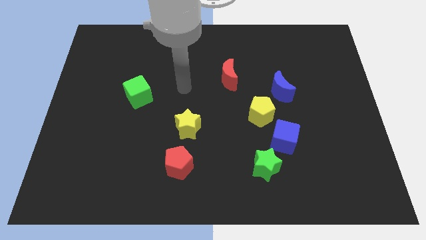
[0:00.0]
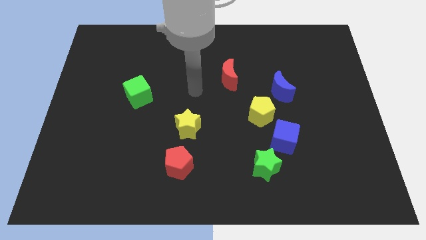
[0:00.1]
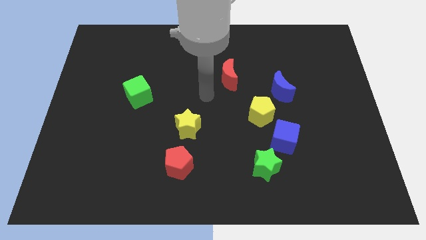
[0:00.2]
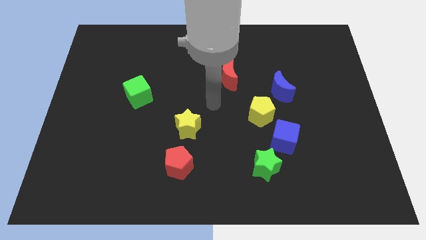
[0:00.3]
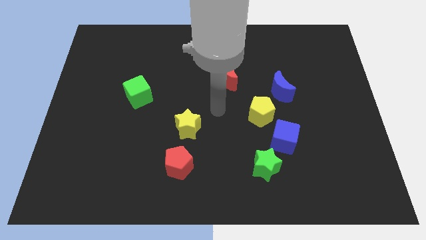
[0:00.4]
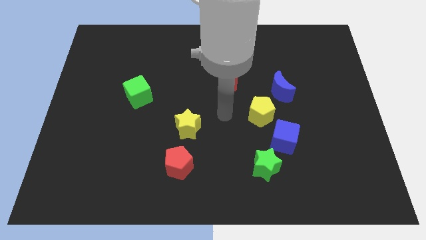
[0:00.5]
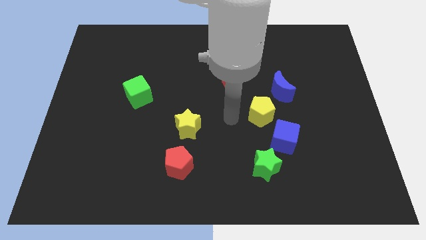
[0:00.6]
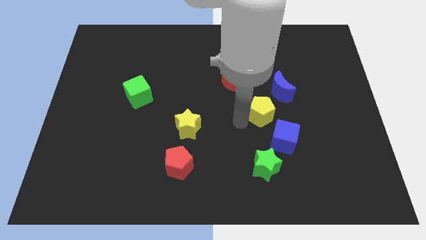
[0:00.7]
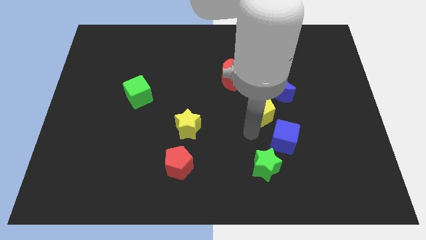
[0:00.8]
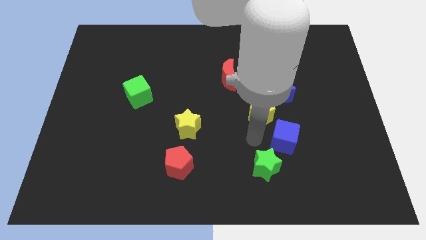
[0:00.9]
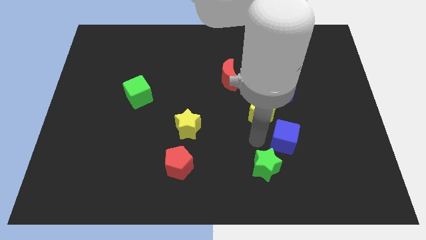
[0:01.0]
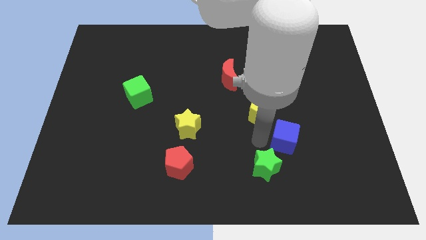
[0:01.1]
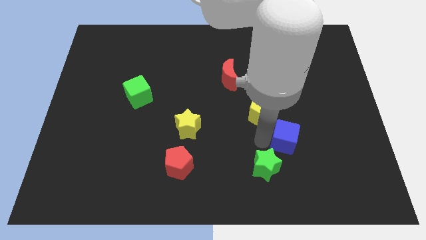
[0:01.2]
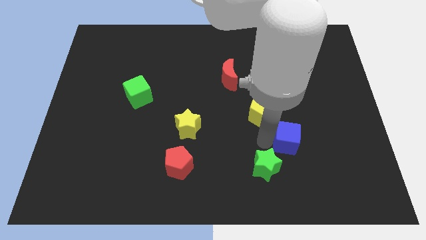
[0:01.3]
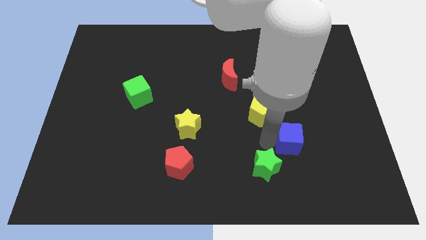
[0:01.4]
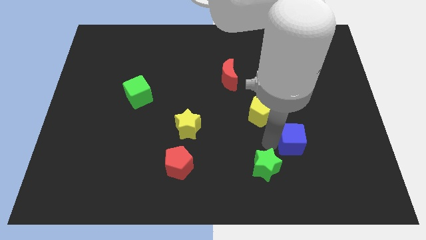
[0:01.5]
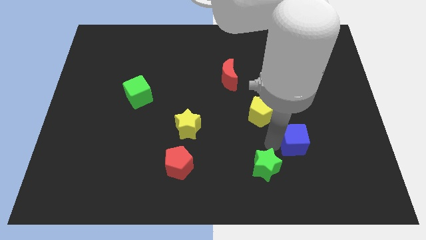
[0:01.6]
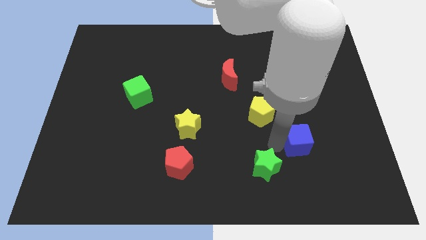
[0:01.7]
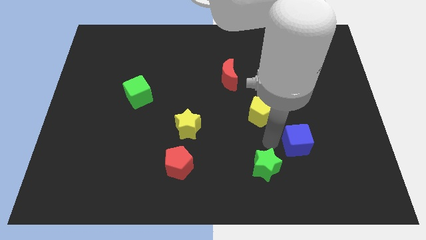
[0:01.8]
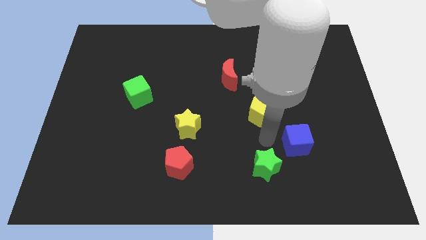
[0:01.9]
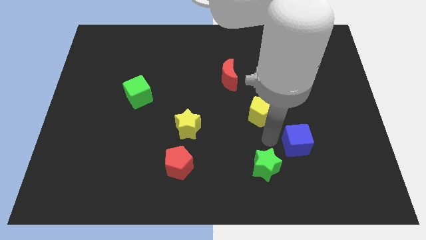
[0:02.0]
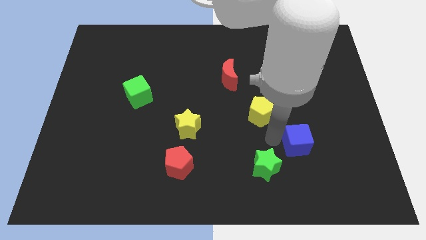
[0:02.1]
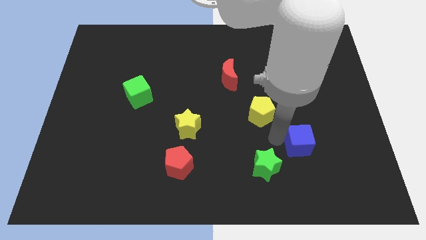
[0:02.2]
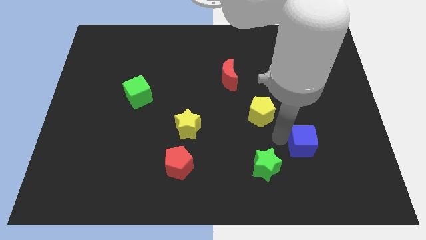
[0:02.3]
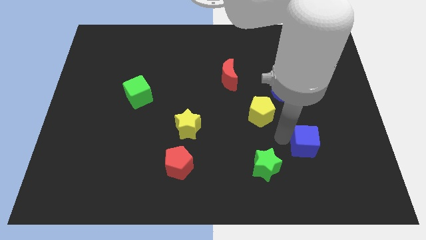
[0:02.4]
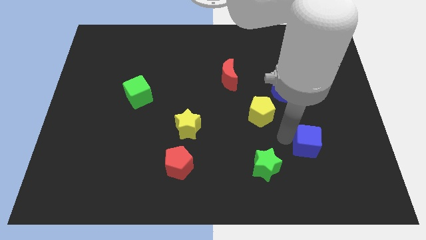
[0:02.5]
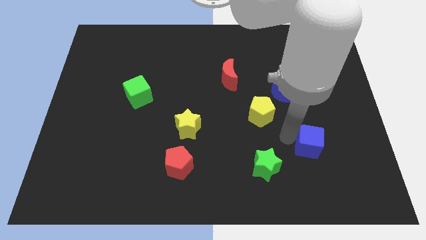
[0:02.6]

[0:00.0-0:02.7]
separate the blue cube from the yellow pentagon and green star

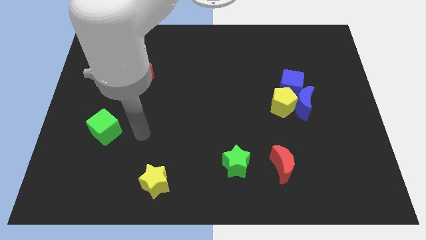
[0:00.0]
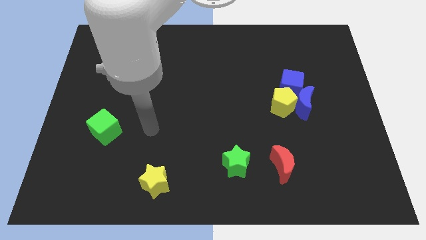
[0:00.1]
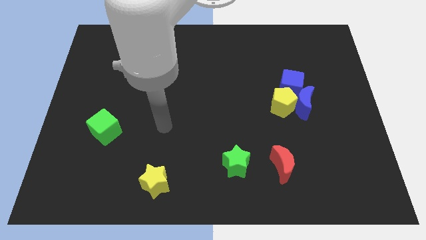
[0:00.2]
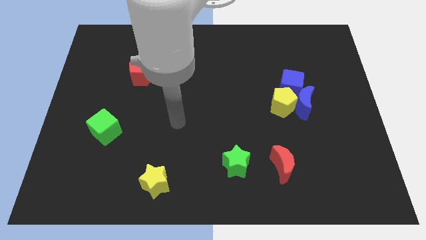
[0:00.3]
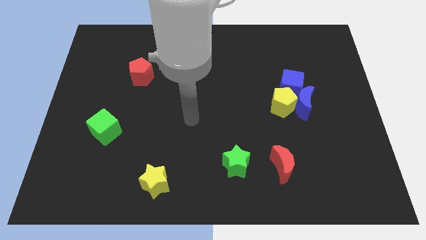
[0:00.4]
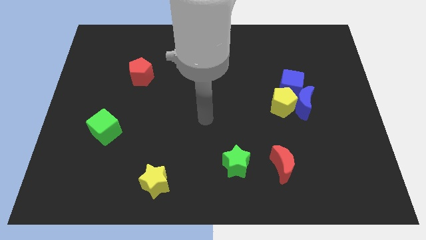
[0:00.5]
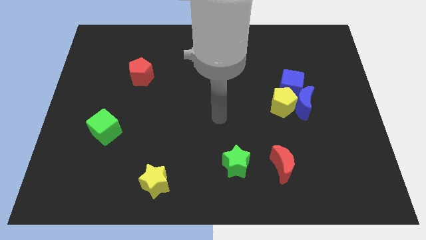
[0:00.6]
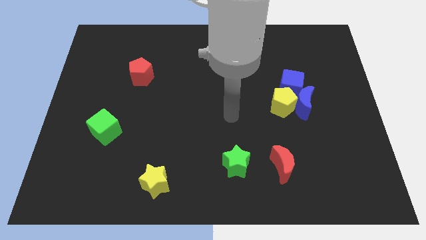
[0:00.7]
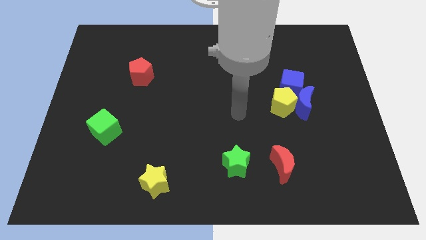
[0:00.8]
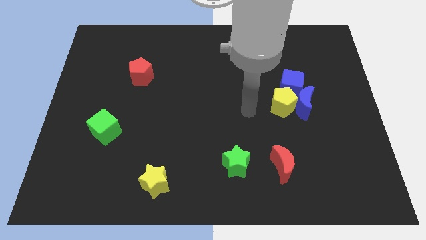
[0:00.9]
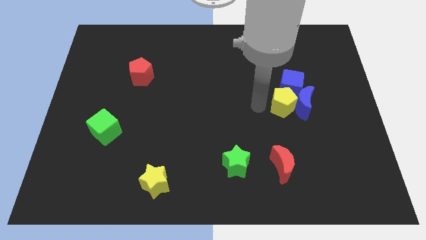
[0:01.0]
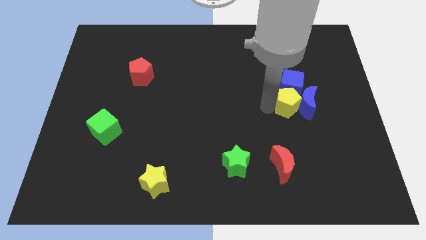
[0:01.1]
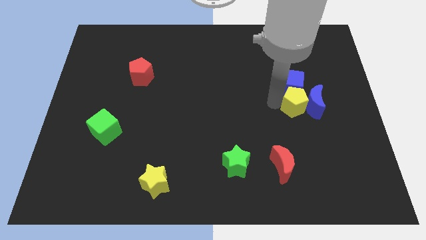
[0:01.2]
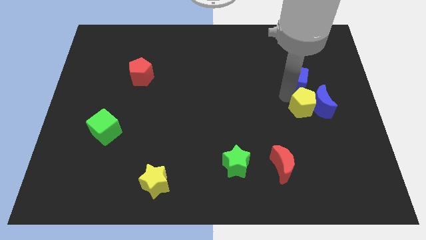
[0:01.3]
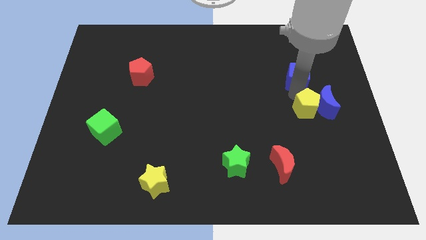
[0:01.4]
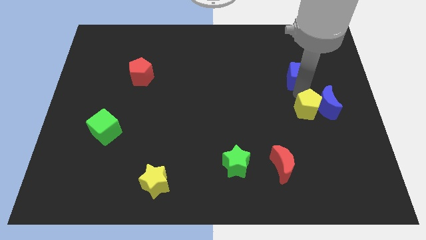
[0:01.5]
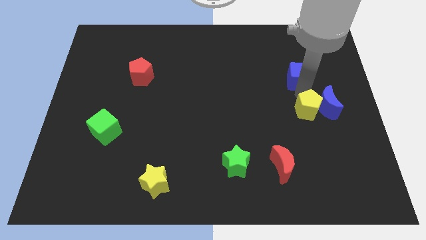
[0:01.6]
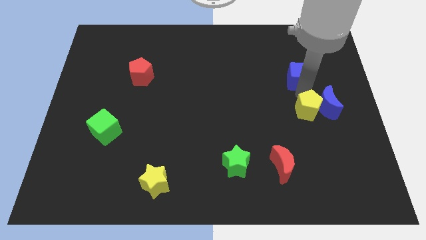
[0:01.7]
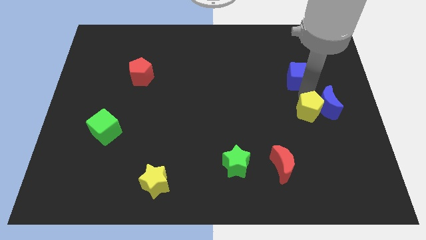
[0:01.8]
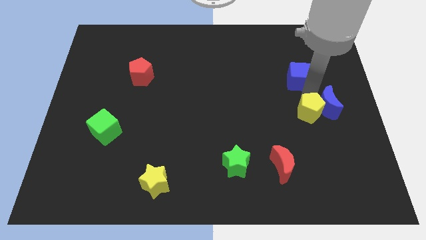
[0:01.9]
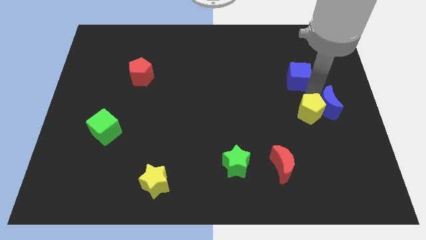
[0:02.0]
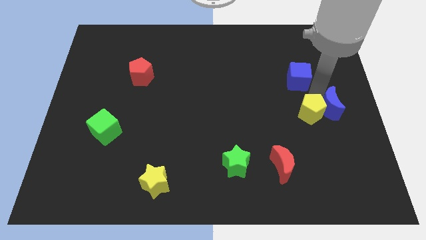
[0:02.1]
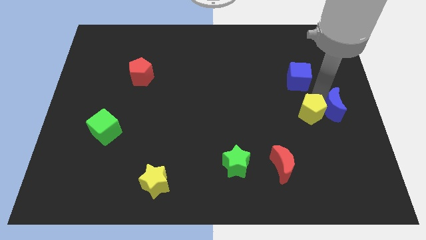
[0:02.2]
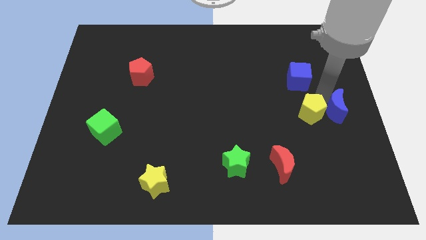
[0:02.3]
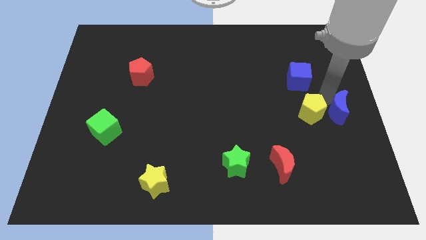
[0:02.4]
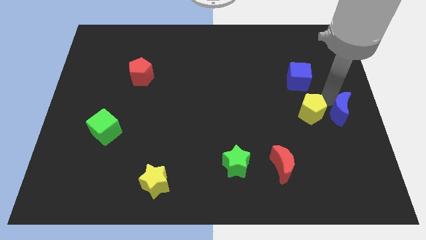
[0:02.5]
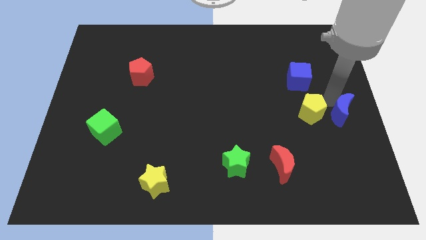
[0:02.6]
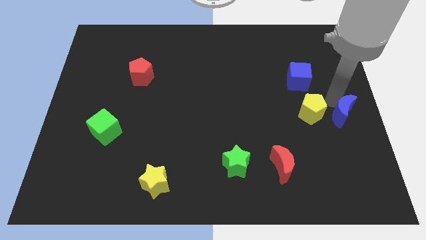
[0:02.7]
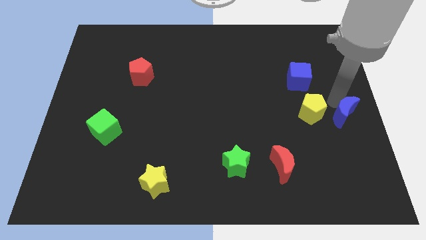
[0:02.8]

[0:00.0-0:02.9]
move the blue moon away from the yellow pentagon and blue cube

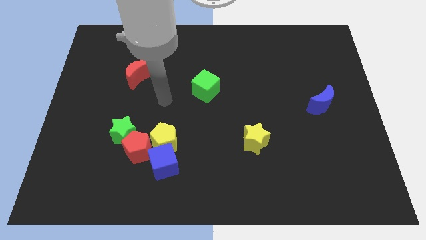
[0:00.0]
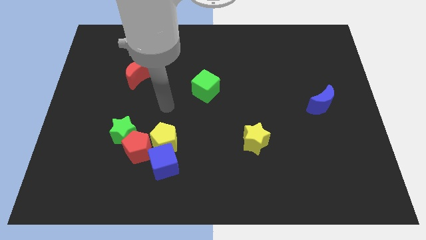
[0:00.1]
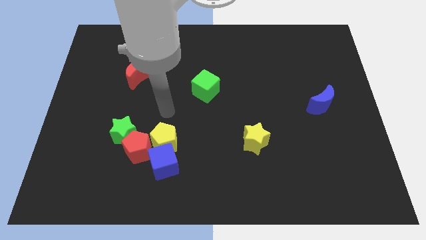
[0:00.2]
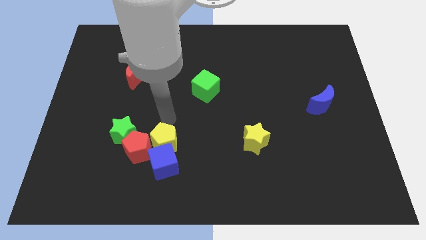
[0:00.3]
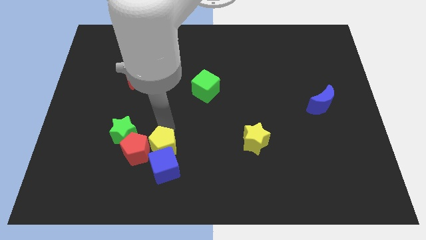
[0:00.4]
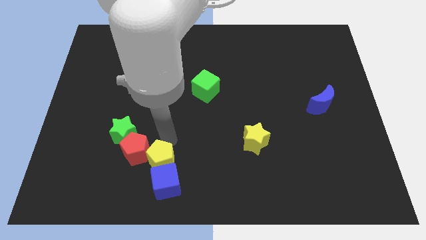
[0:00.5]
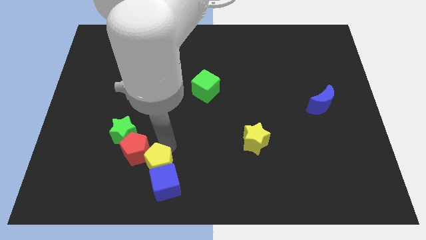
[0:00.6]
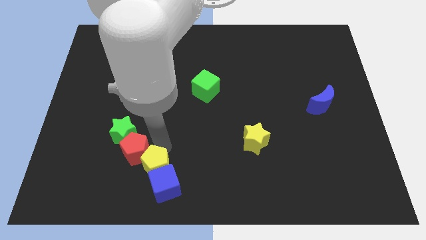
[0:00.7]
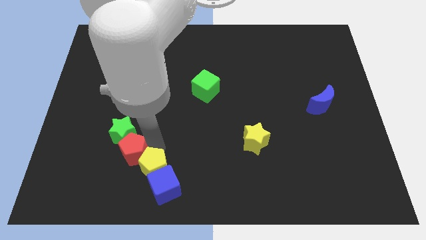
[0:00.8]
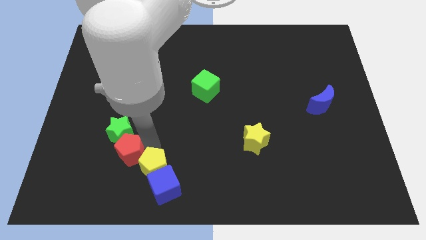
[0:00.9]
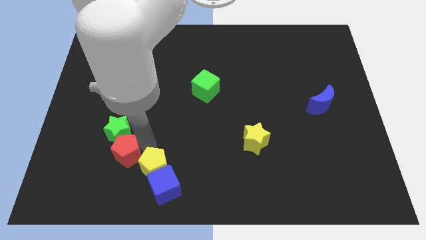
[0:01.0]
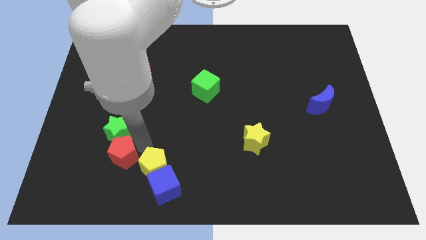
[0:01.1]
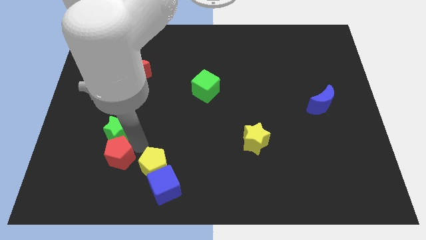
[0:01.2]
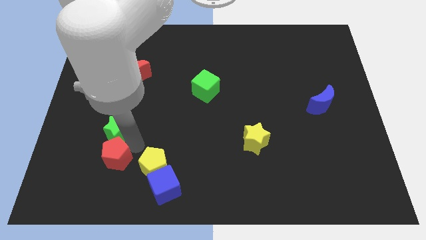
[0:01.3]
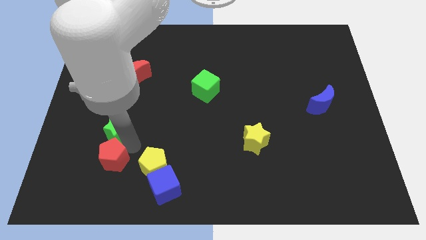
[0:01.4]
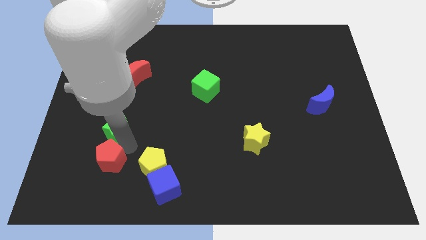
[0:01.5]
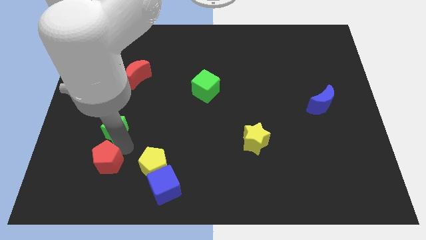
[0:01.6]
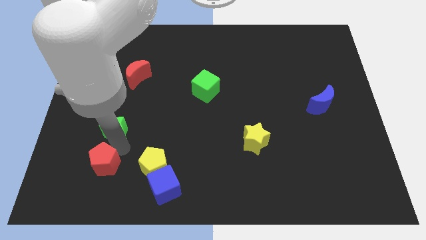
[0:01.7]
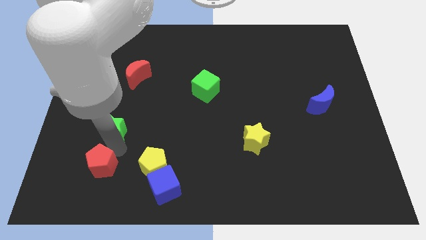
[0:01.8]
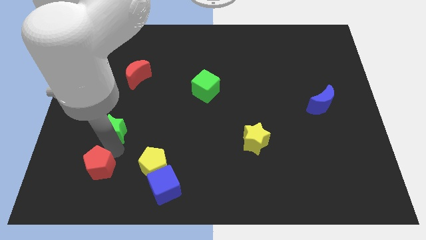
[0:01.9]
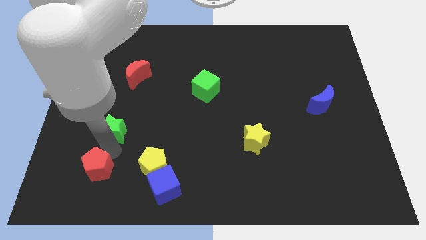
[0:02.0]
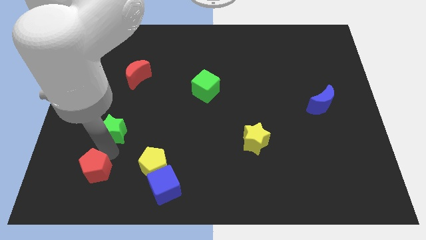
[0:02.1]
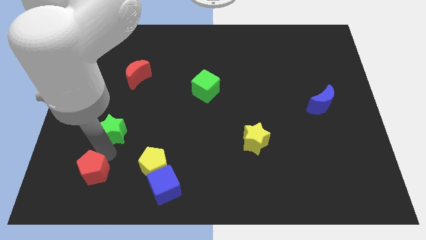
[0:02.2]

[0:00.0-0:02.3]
separate the red pentagon from the group of blocks

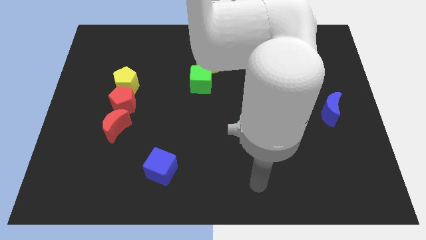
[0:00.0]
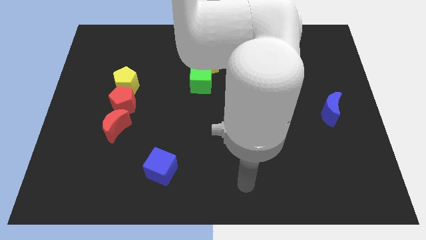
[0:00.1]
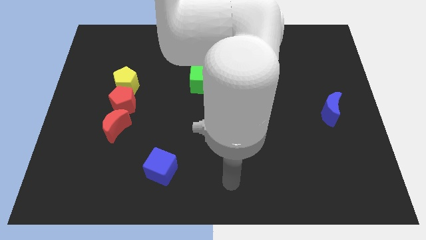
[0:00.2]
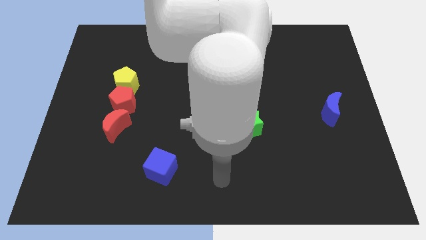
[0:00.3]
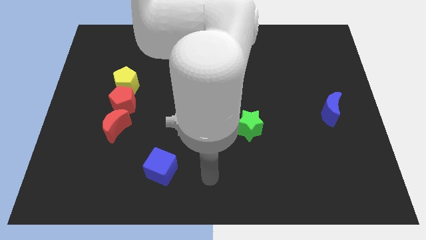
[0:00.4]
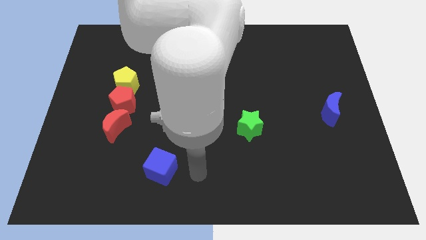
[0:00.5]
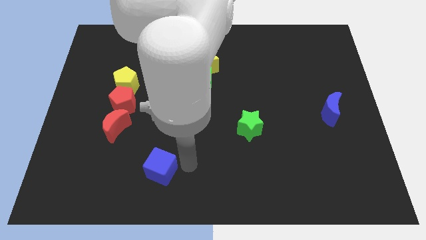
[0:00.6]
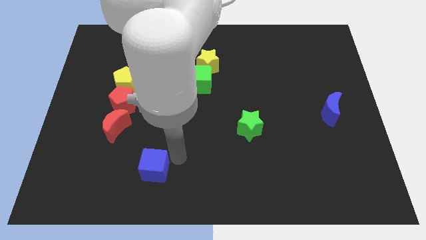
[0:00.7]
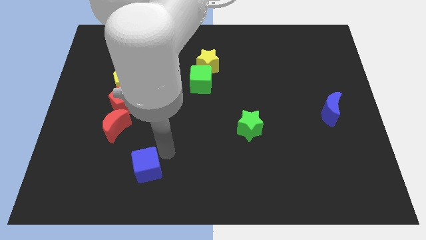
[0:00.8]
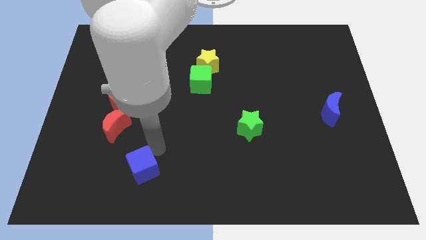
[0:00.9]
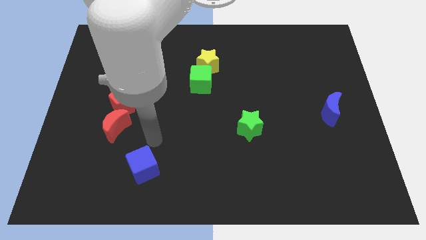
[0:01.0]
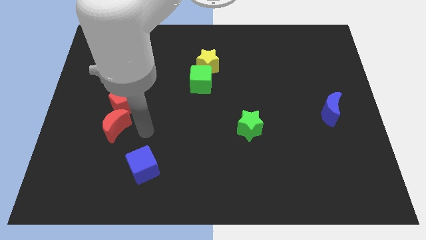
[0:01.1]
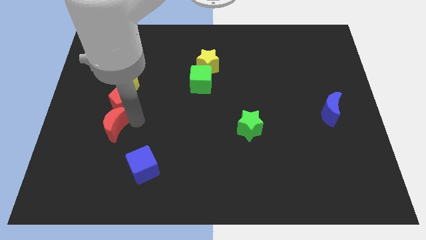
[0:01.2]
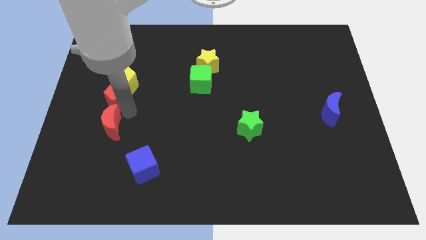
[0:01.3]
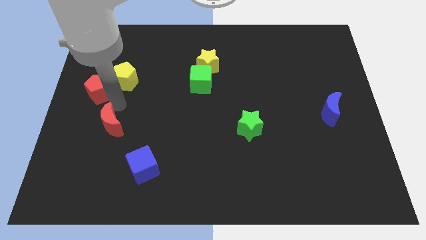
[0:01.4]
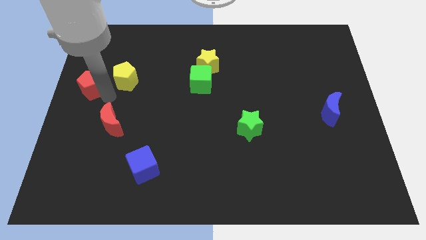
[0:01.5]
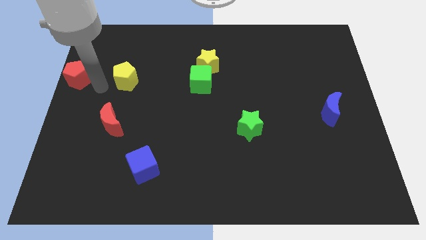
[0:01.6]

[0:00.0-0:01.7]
separate the yellow pentagon from the red pentagon
